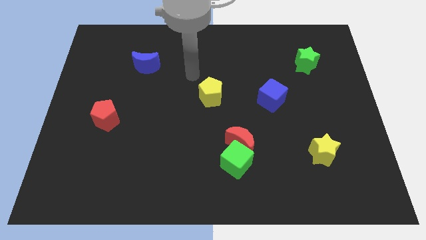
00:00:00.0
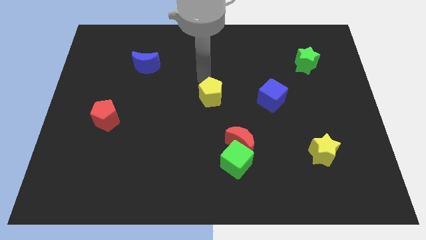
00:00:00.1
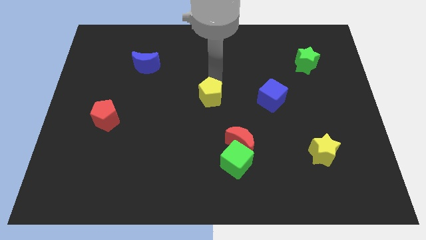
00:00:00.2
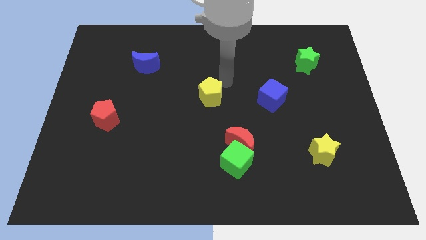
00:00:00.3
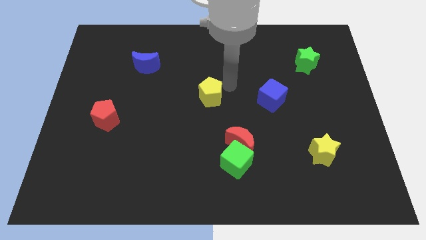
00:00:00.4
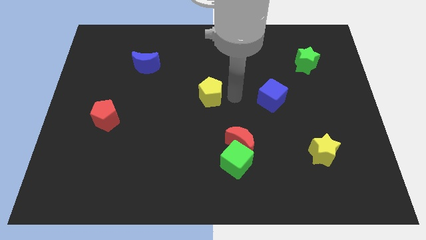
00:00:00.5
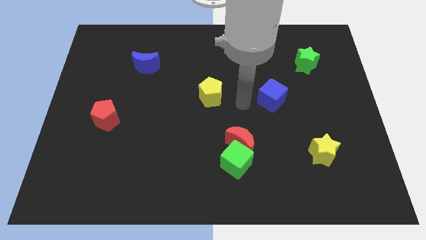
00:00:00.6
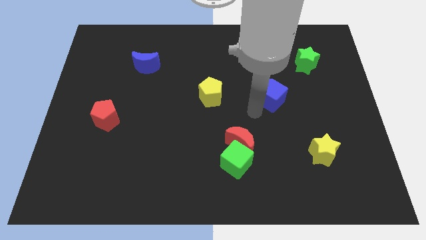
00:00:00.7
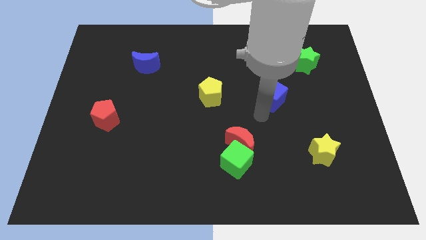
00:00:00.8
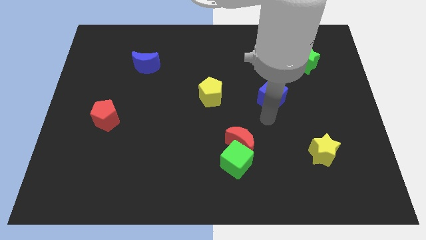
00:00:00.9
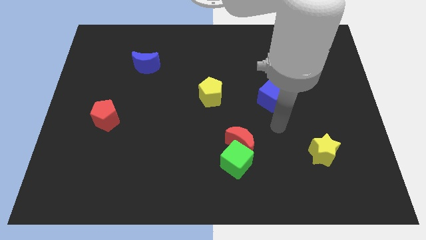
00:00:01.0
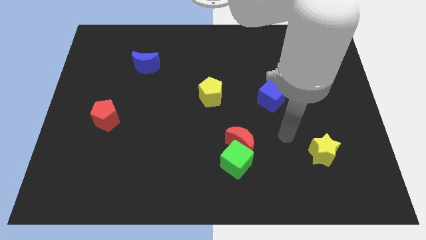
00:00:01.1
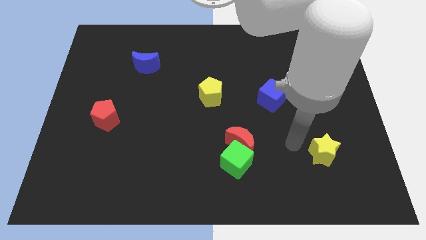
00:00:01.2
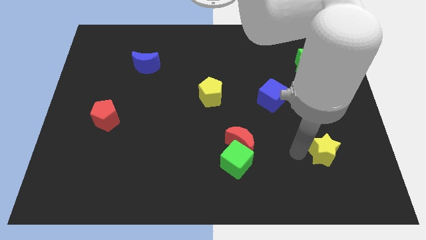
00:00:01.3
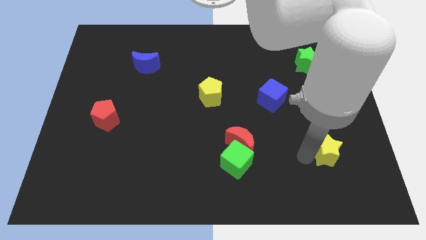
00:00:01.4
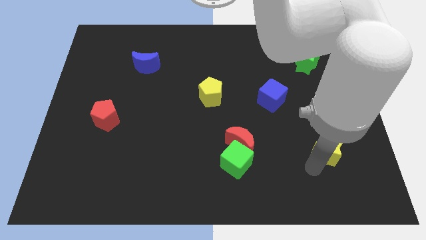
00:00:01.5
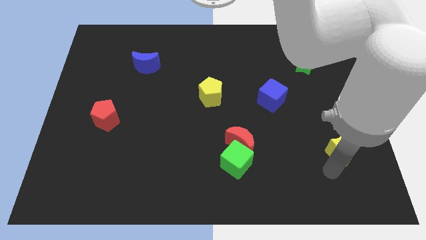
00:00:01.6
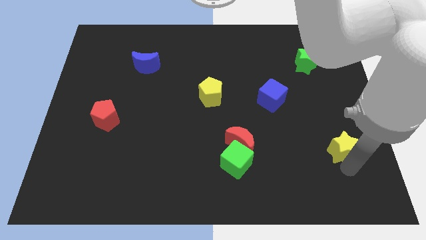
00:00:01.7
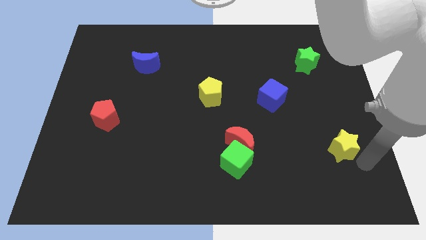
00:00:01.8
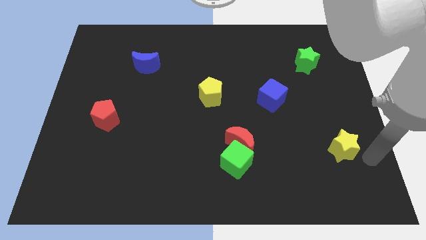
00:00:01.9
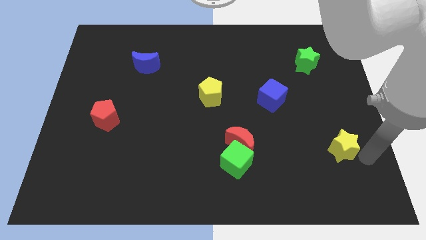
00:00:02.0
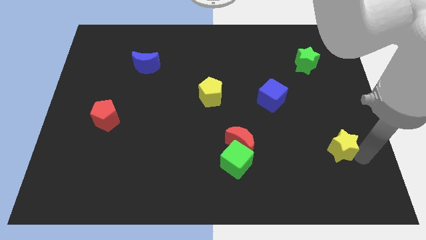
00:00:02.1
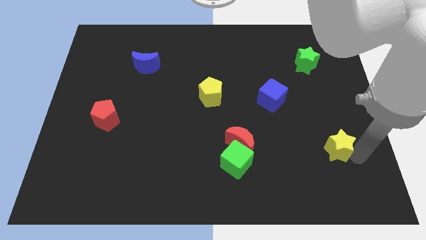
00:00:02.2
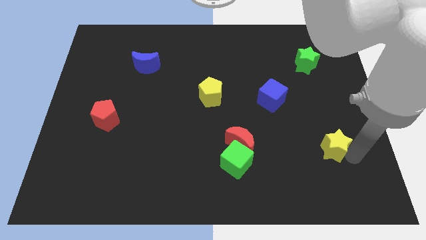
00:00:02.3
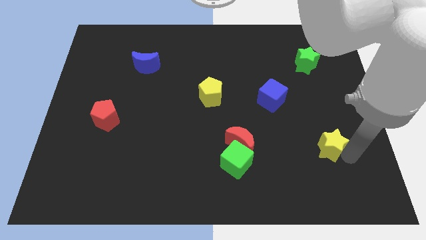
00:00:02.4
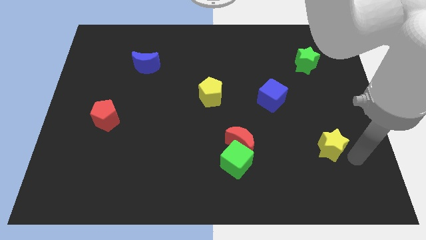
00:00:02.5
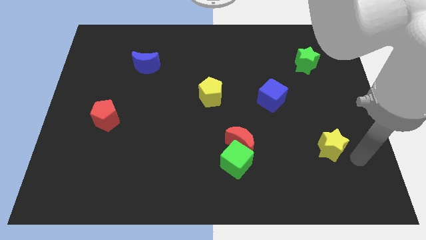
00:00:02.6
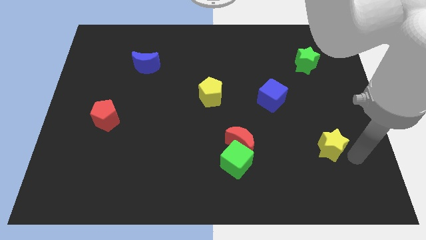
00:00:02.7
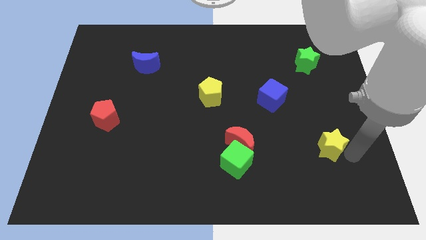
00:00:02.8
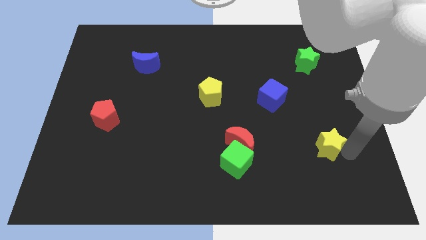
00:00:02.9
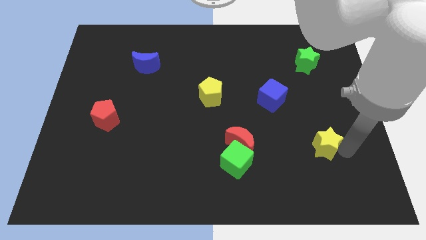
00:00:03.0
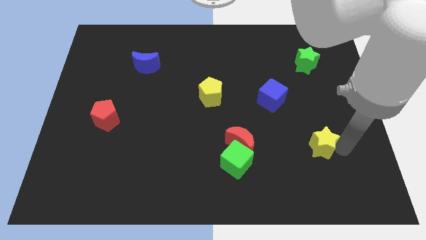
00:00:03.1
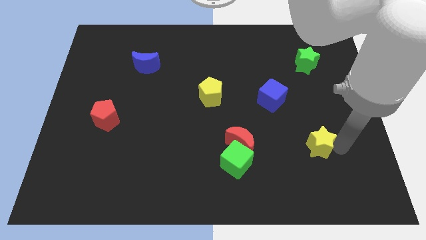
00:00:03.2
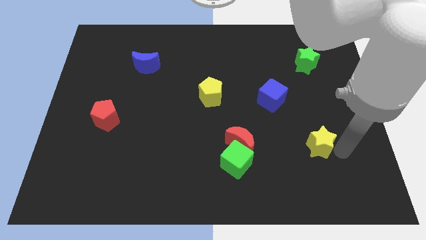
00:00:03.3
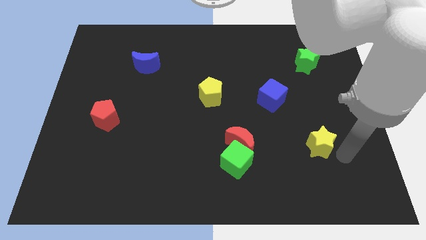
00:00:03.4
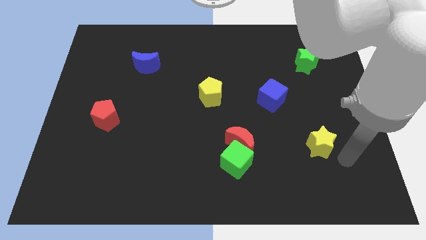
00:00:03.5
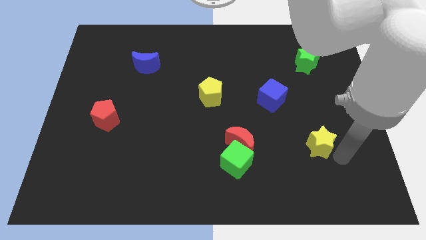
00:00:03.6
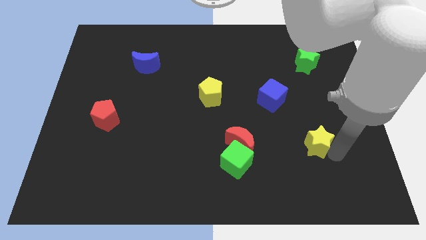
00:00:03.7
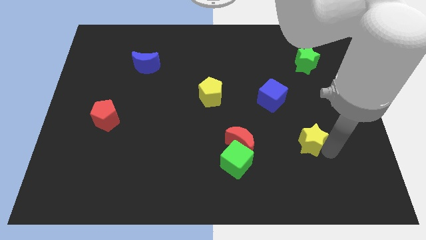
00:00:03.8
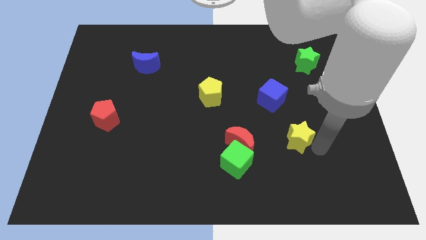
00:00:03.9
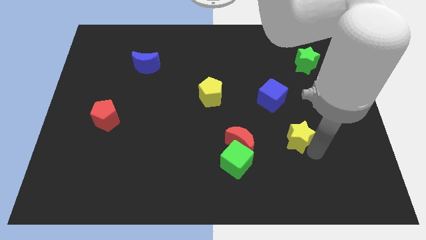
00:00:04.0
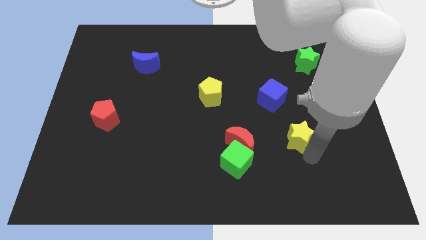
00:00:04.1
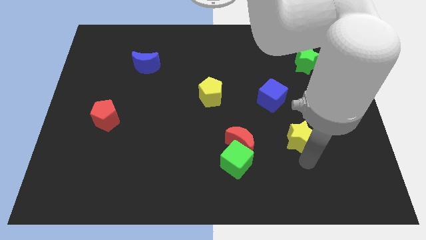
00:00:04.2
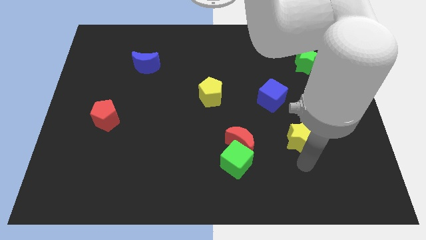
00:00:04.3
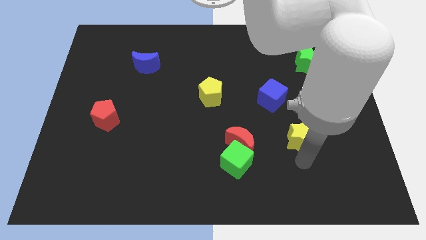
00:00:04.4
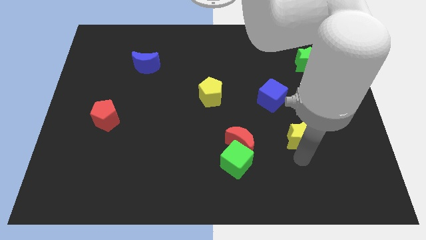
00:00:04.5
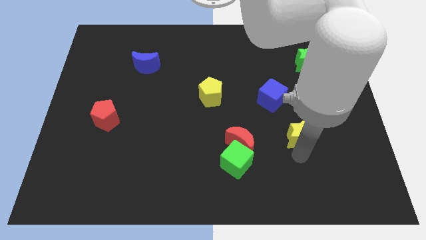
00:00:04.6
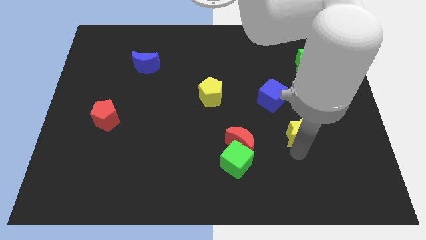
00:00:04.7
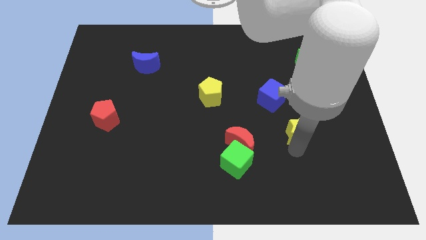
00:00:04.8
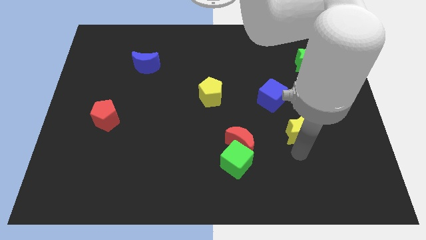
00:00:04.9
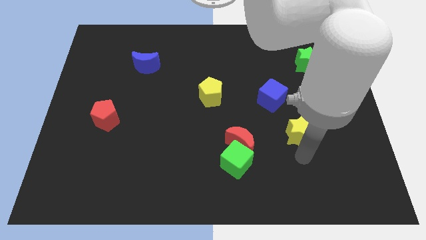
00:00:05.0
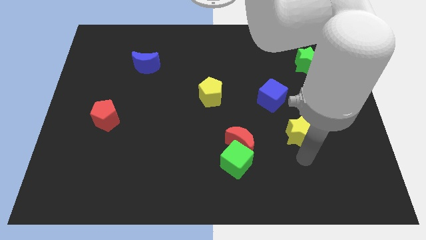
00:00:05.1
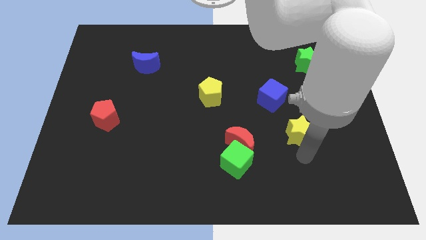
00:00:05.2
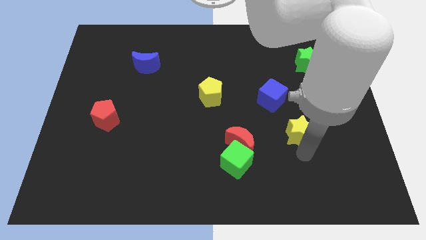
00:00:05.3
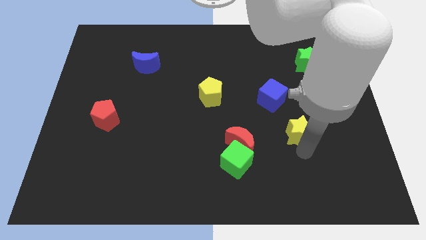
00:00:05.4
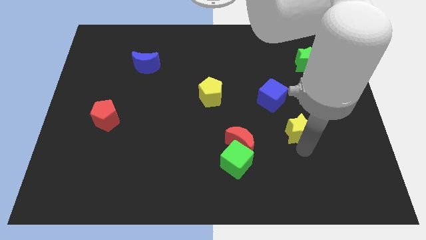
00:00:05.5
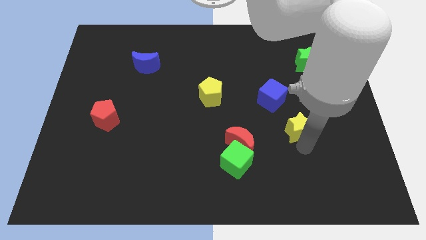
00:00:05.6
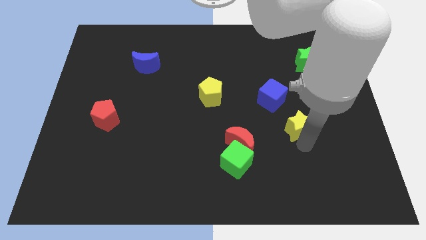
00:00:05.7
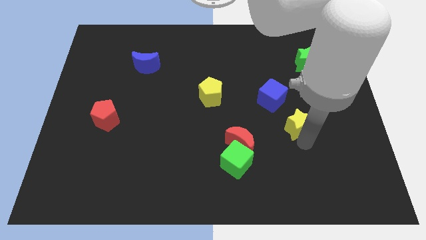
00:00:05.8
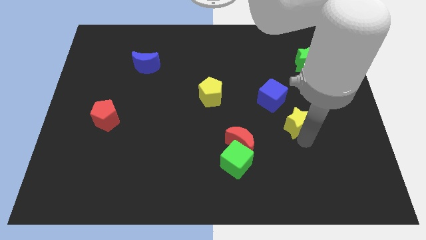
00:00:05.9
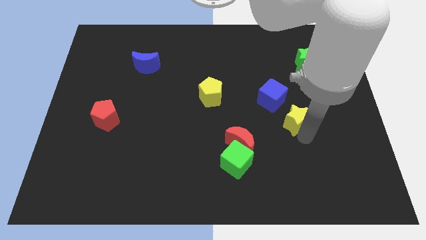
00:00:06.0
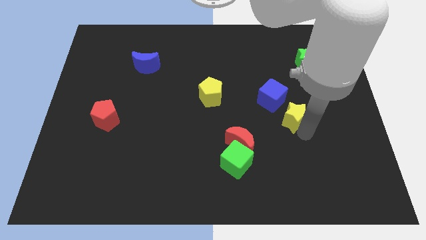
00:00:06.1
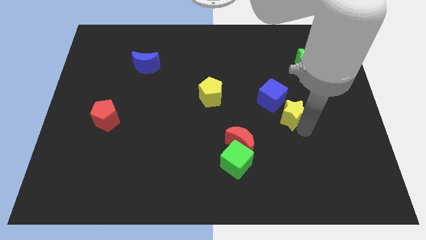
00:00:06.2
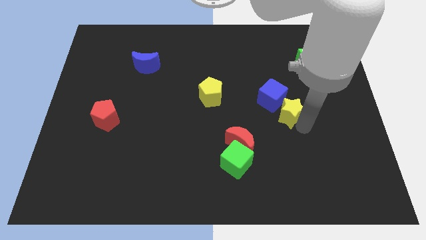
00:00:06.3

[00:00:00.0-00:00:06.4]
put the yellow star to the blue cube

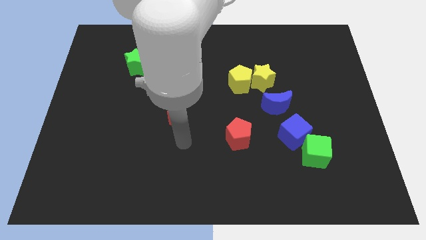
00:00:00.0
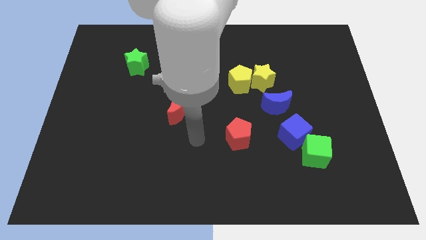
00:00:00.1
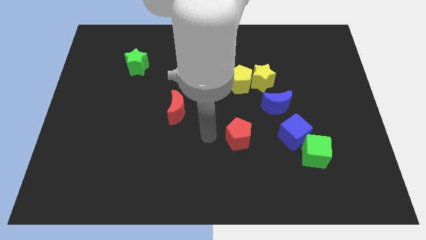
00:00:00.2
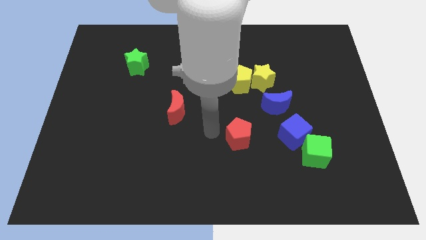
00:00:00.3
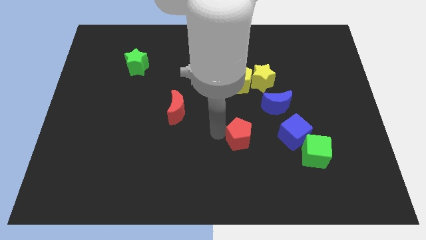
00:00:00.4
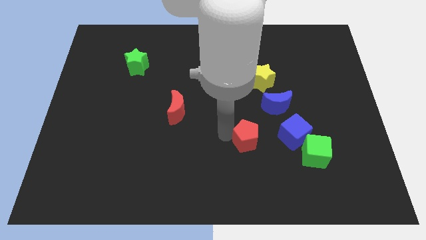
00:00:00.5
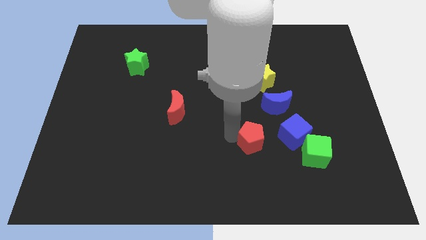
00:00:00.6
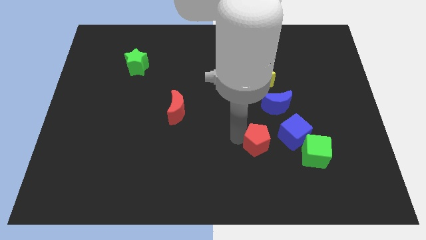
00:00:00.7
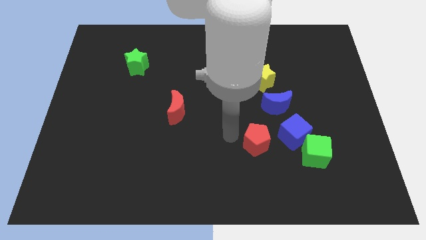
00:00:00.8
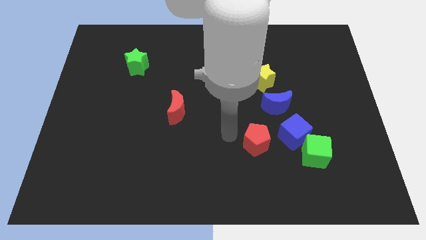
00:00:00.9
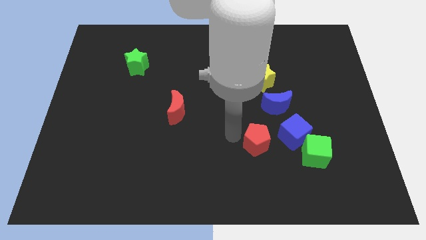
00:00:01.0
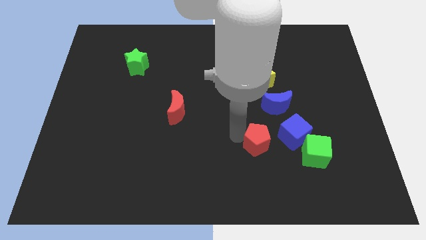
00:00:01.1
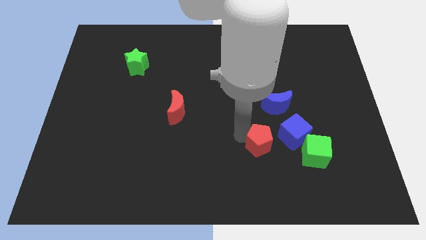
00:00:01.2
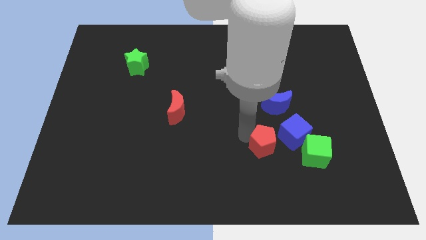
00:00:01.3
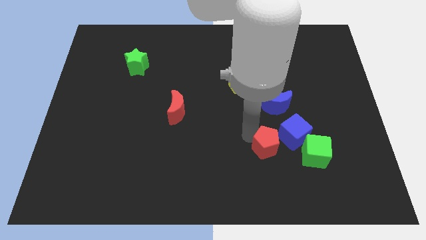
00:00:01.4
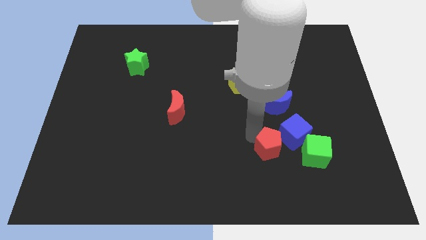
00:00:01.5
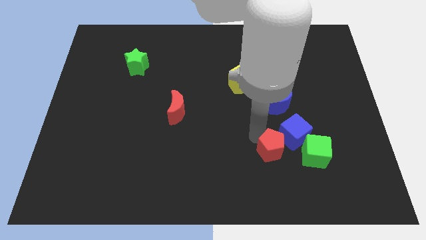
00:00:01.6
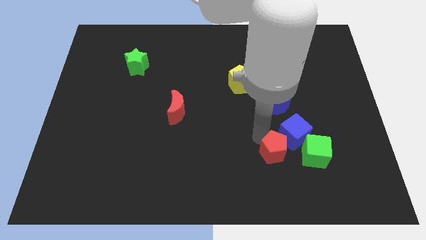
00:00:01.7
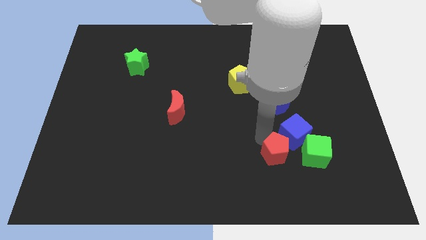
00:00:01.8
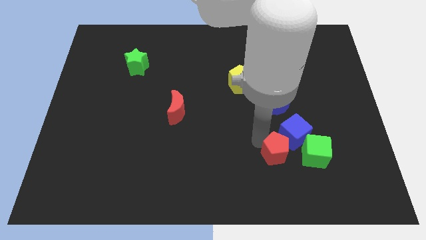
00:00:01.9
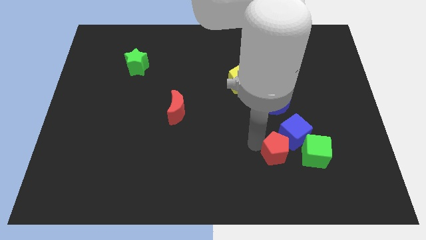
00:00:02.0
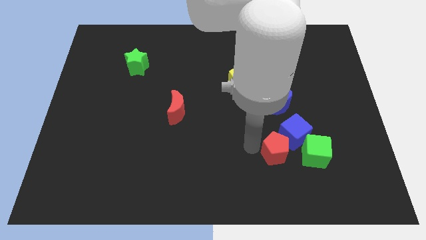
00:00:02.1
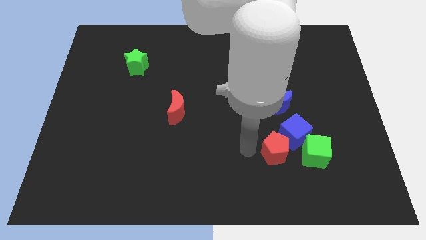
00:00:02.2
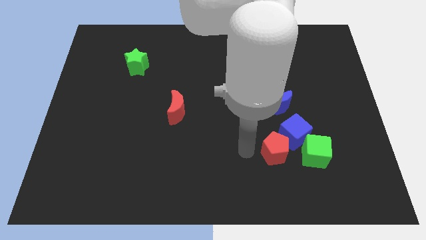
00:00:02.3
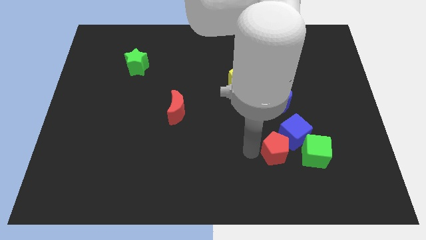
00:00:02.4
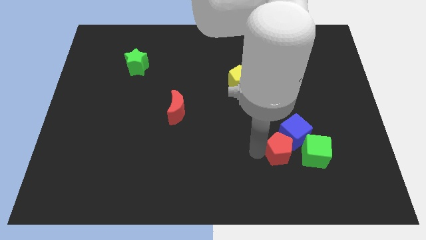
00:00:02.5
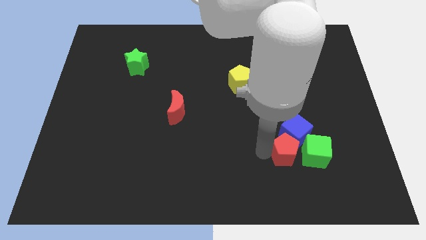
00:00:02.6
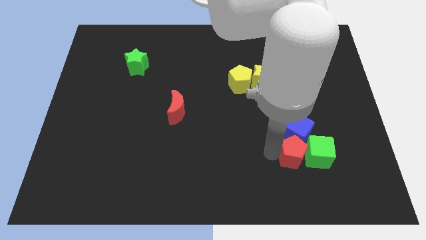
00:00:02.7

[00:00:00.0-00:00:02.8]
slide the red pentagon to the green cube
